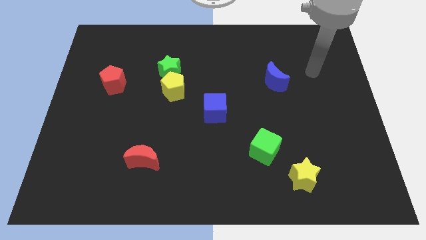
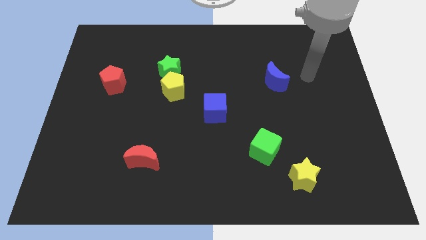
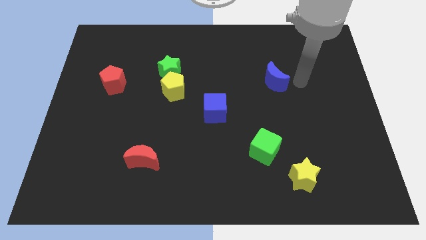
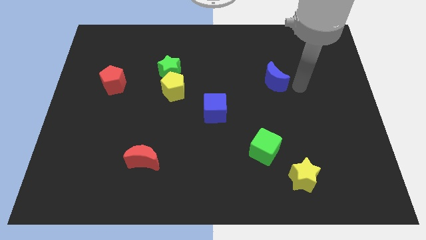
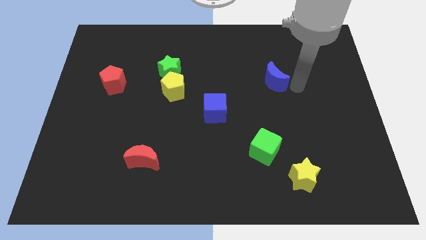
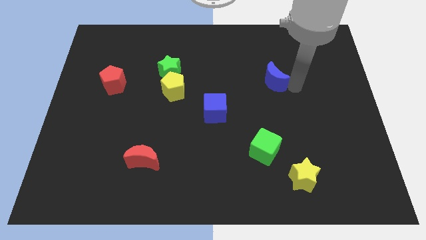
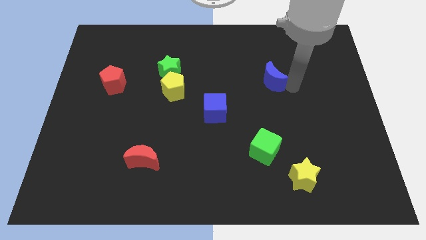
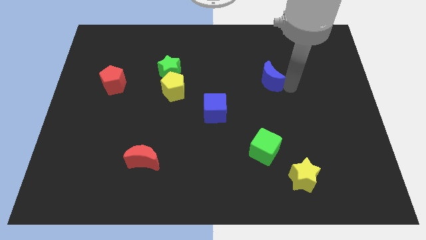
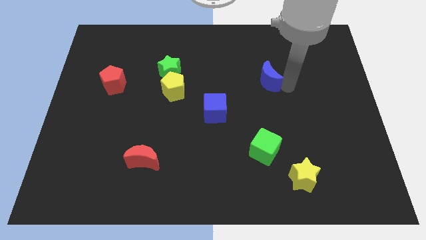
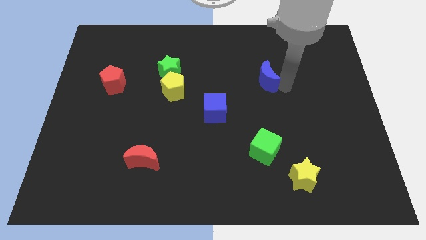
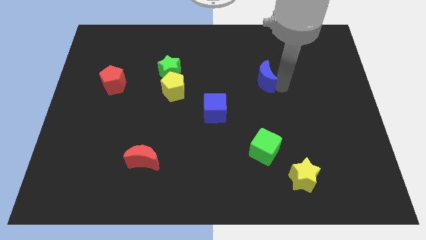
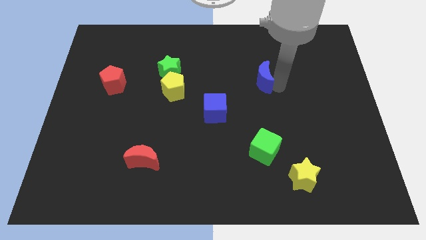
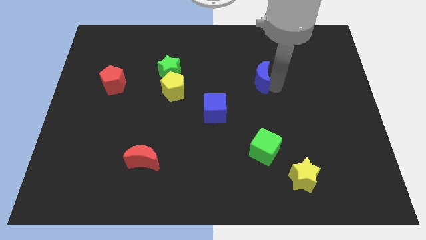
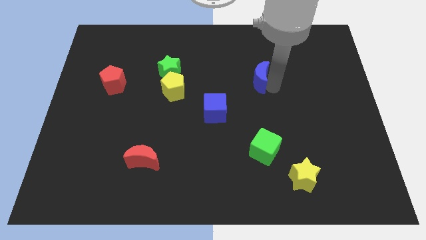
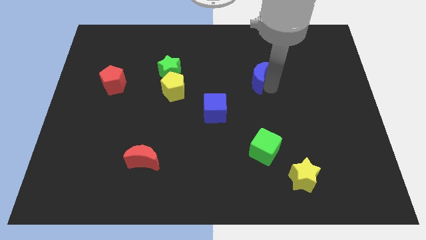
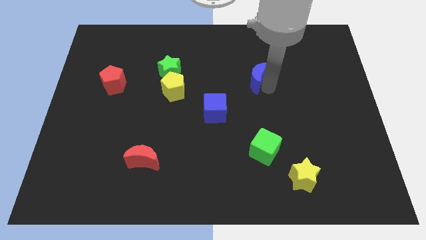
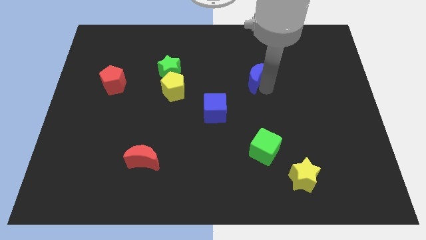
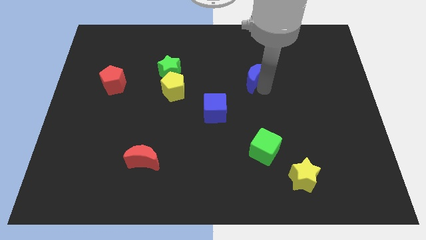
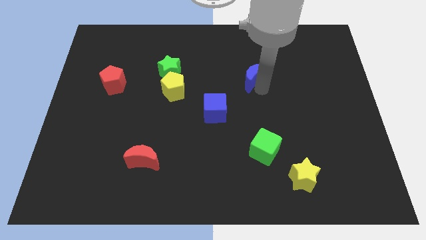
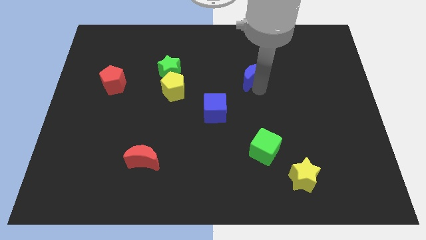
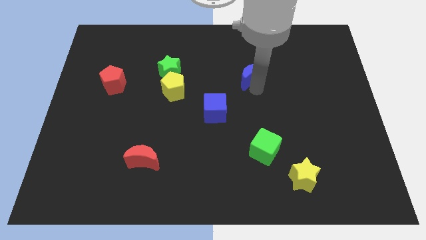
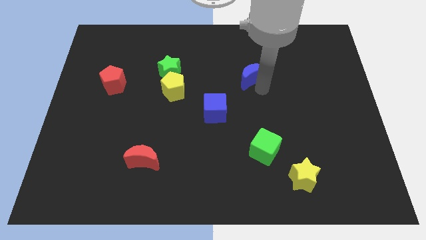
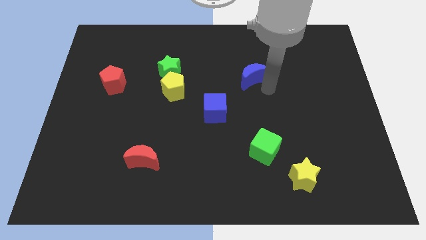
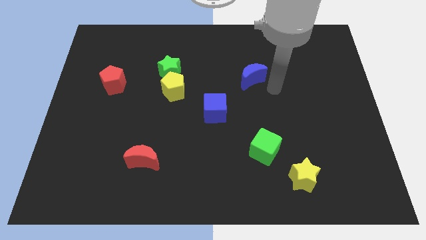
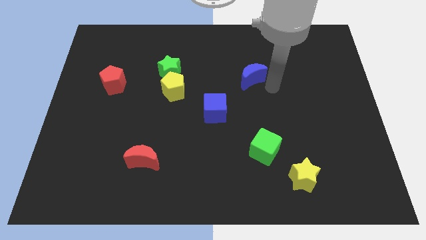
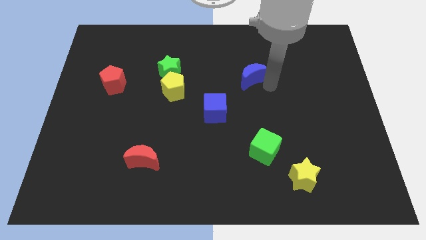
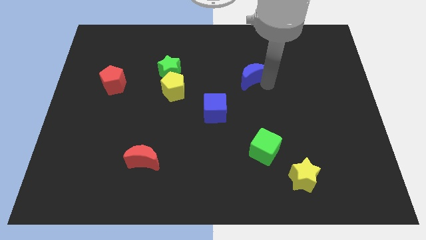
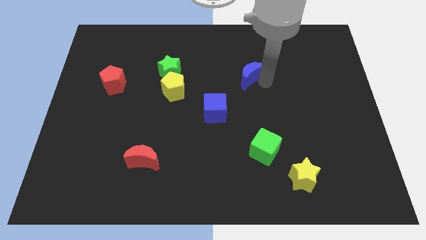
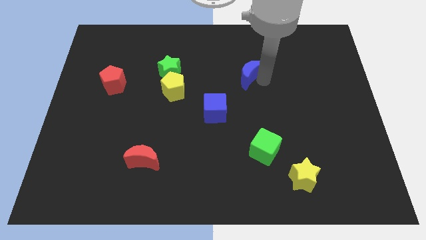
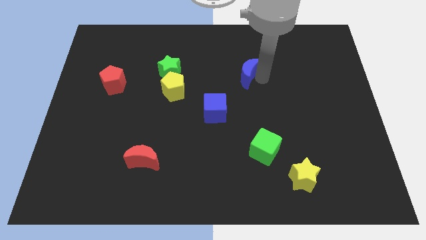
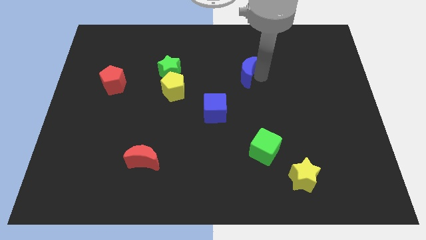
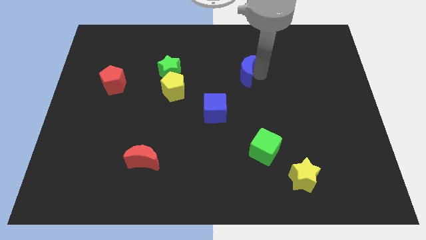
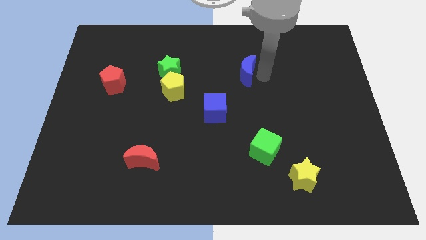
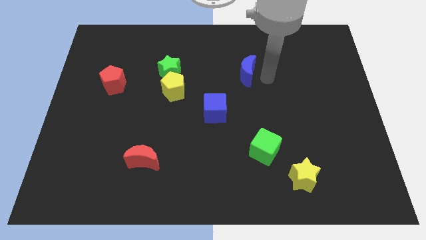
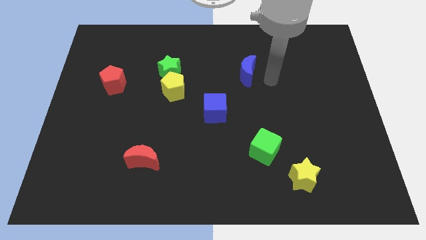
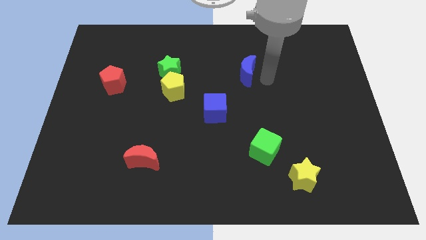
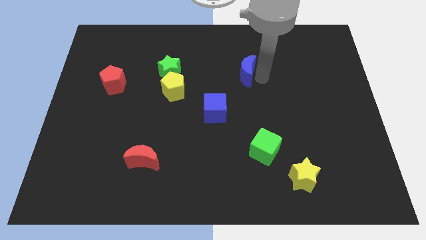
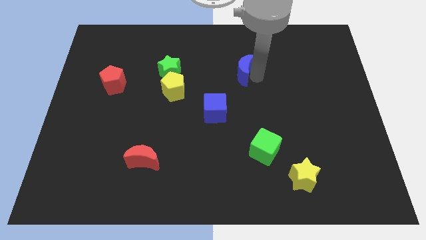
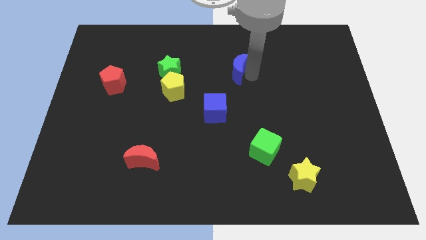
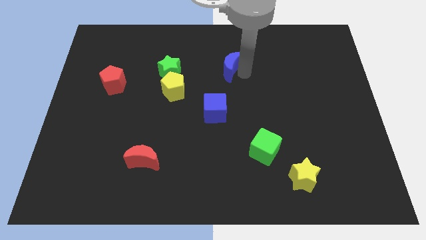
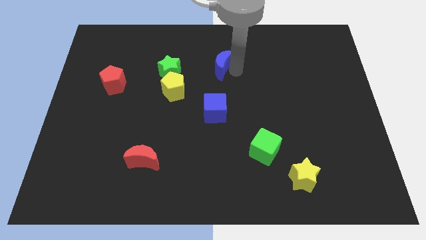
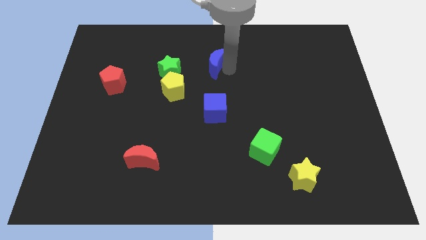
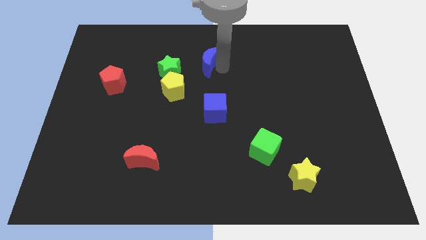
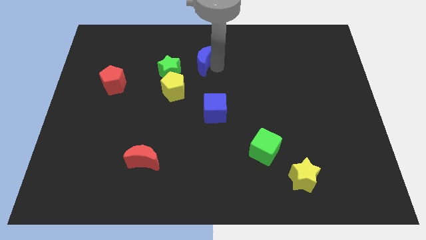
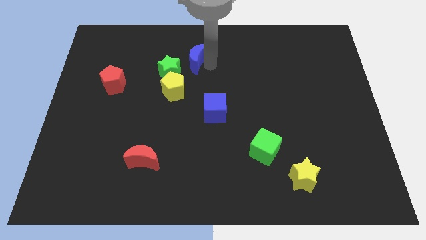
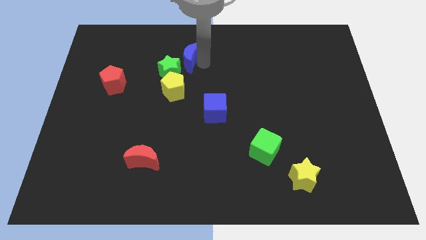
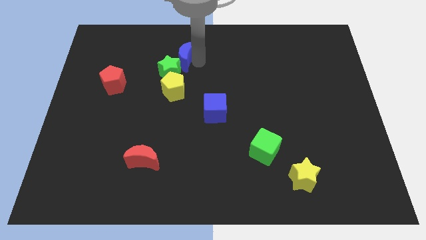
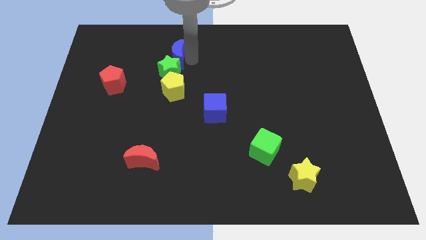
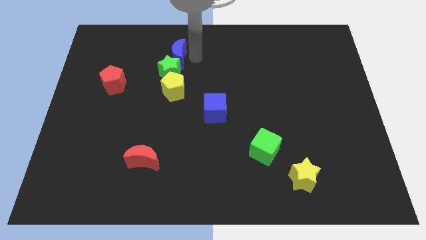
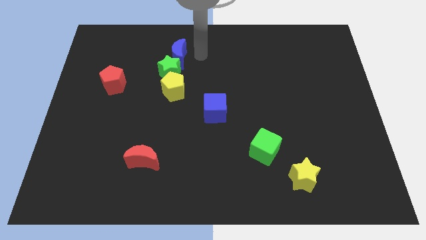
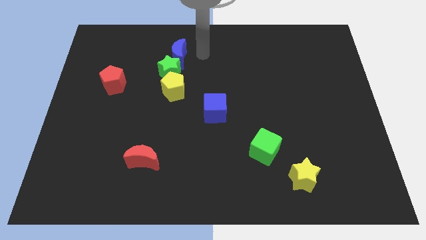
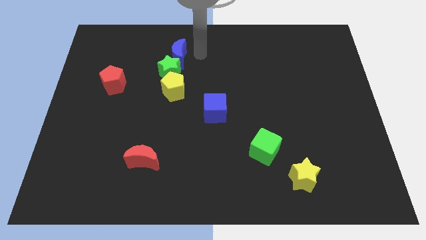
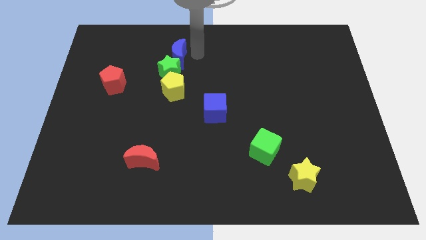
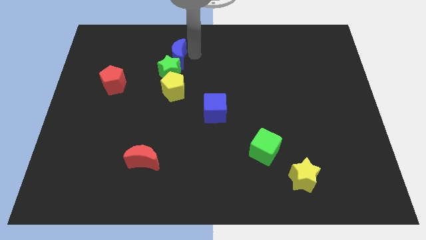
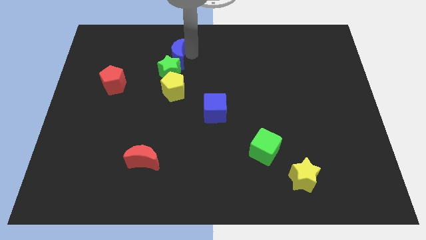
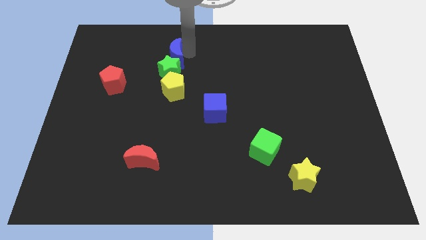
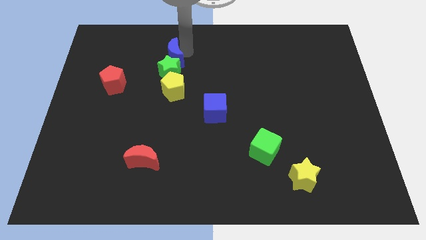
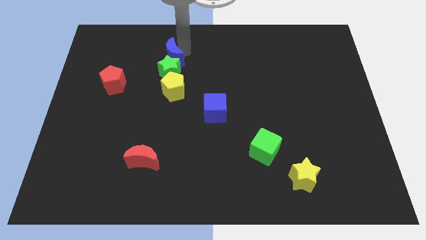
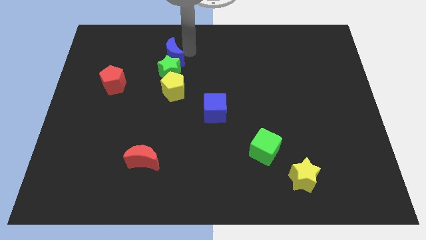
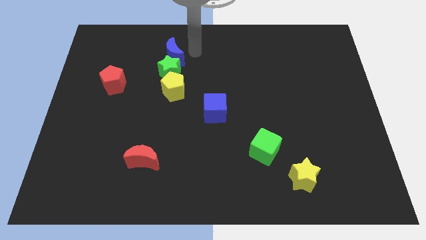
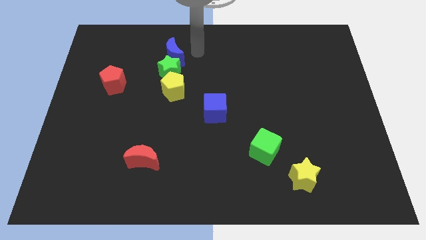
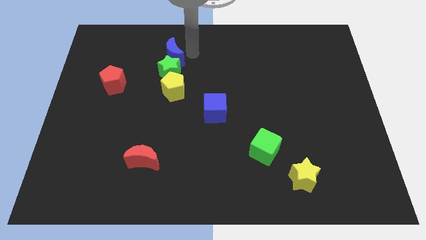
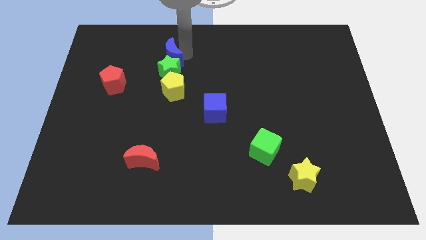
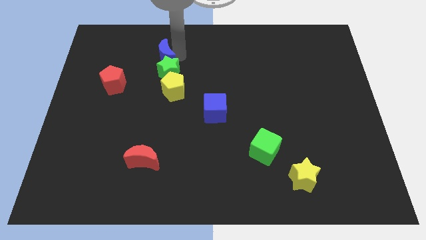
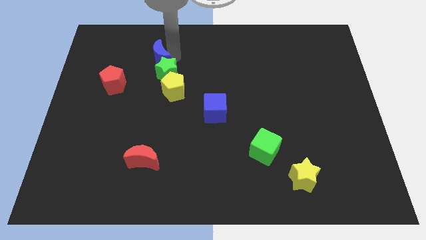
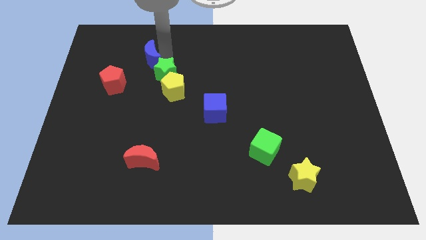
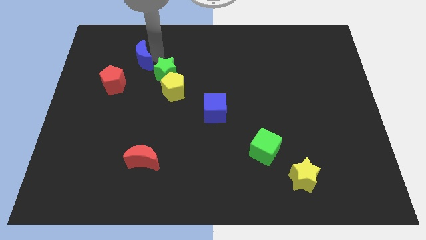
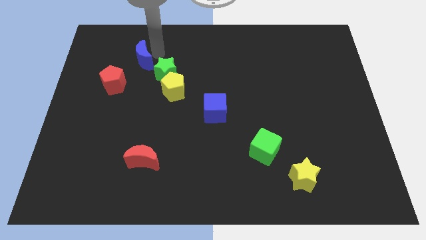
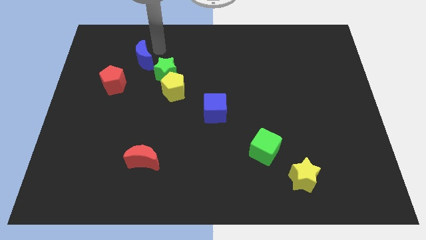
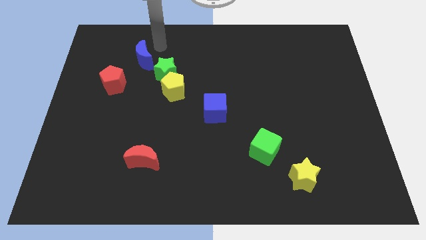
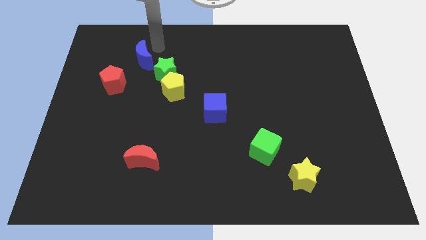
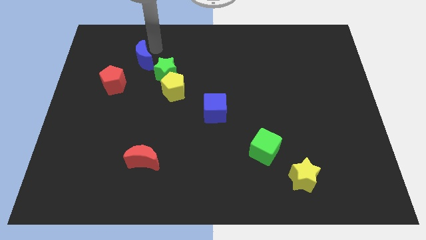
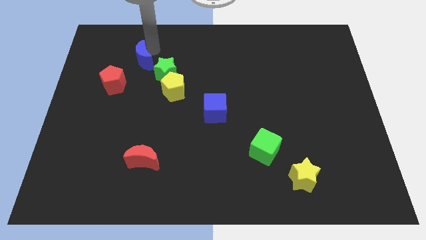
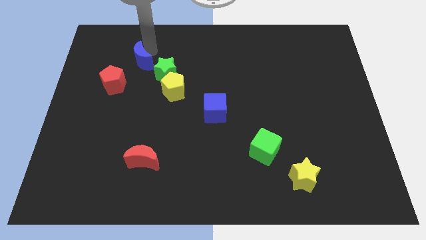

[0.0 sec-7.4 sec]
slide the blue moon left of the green star
